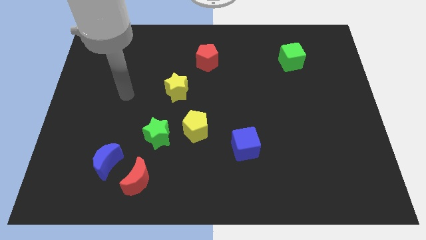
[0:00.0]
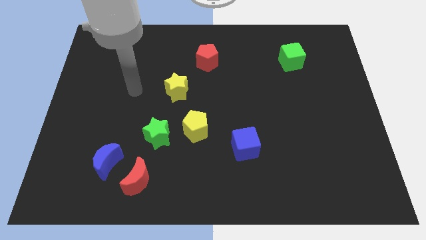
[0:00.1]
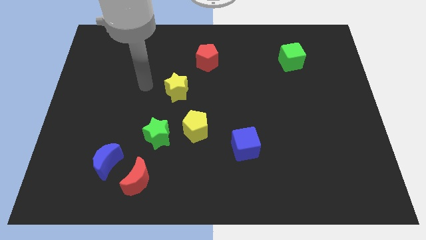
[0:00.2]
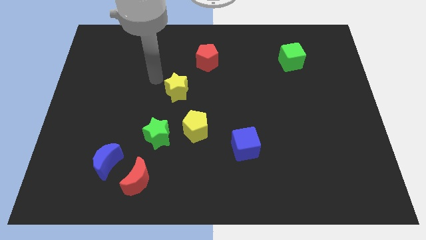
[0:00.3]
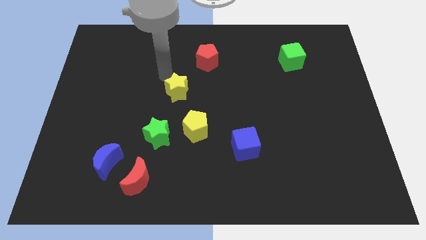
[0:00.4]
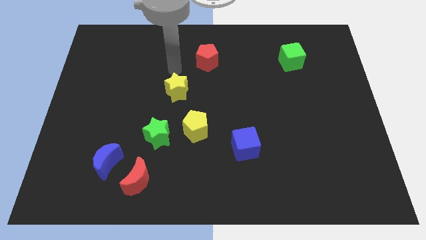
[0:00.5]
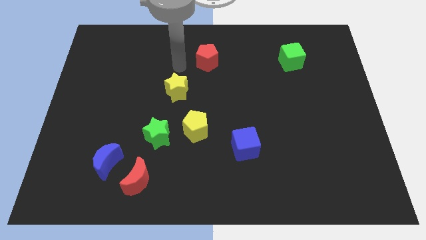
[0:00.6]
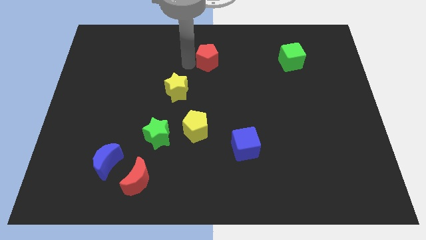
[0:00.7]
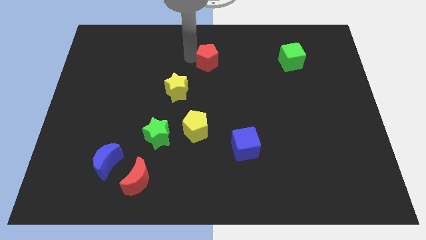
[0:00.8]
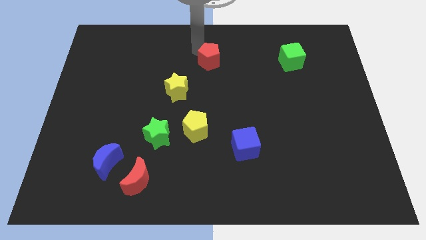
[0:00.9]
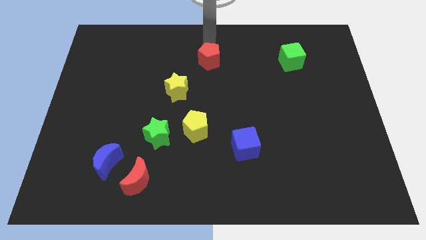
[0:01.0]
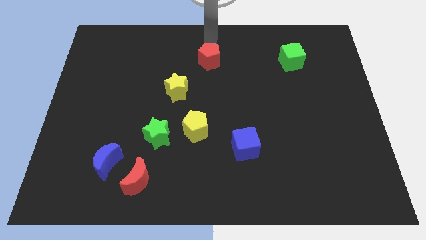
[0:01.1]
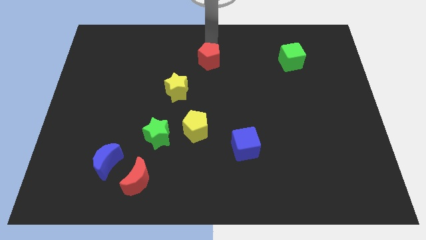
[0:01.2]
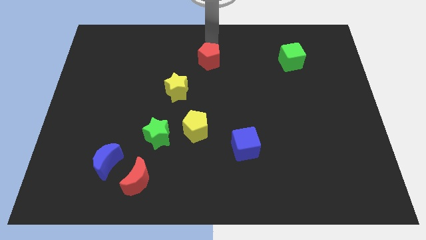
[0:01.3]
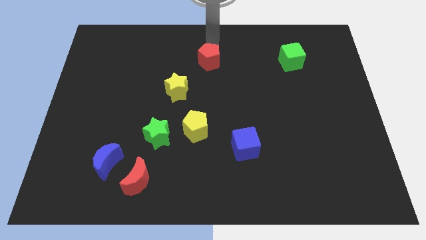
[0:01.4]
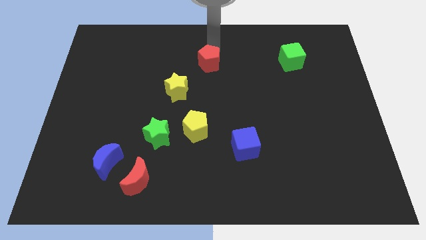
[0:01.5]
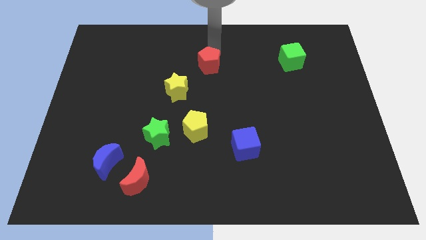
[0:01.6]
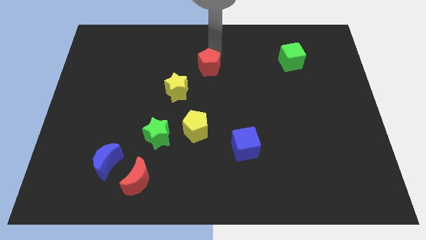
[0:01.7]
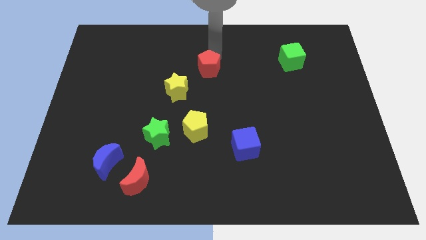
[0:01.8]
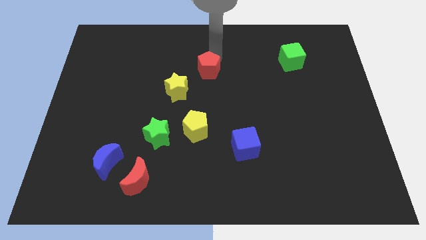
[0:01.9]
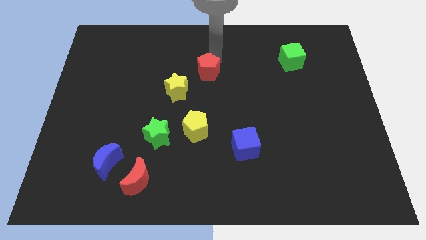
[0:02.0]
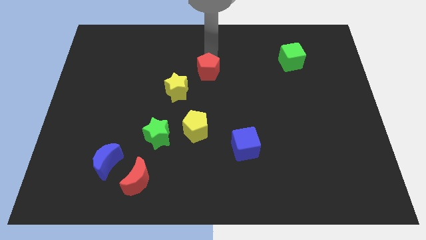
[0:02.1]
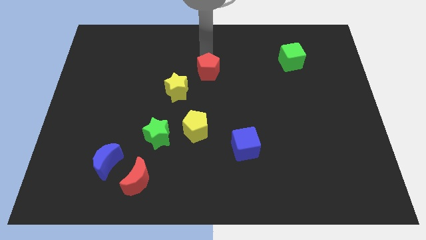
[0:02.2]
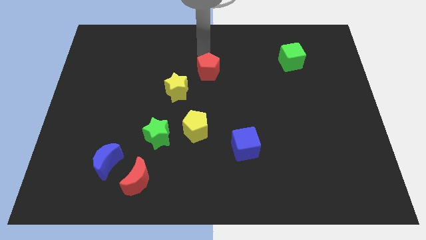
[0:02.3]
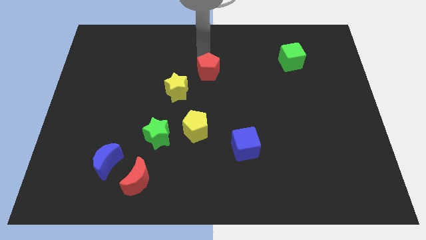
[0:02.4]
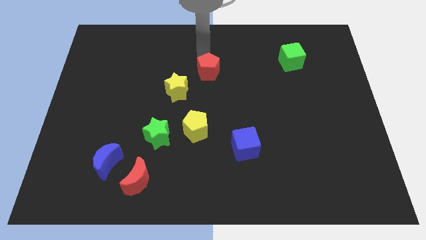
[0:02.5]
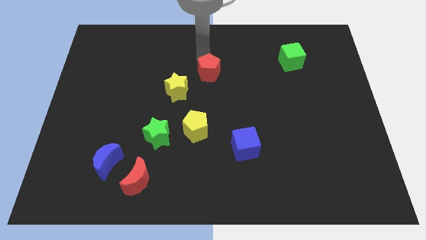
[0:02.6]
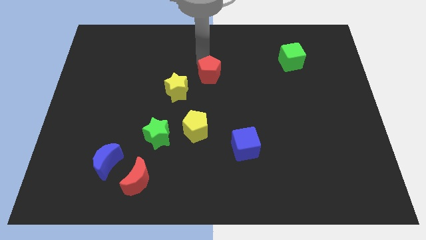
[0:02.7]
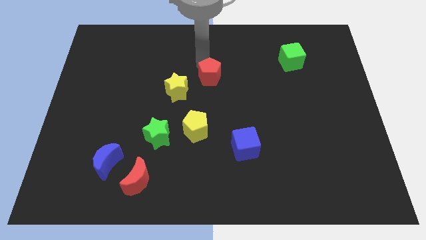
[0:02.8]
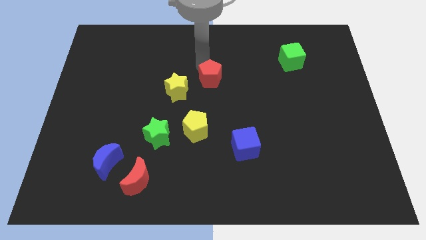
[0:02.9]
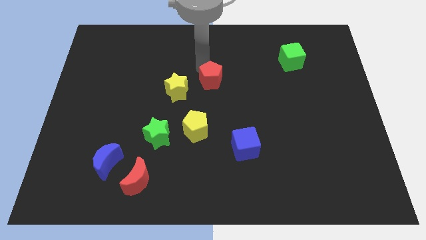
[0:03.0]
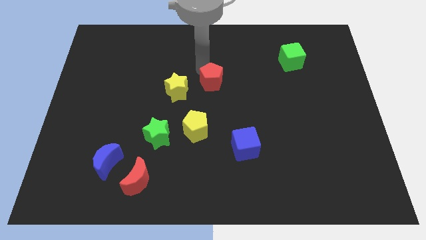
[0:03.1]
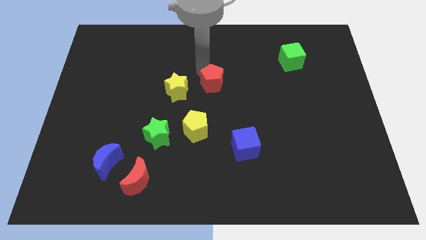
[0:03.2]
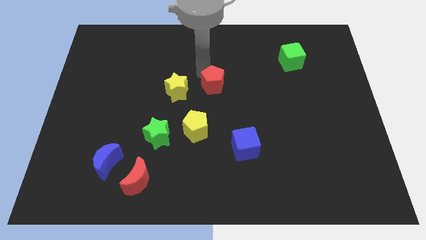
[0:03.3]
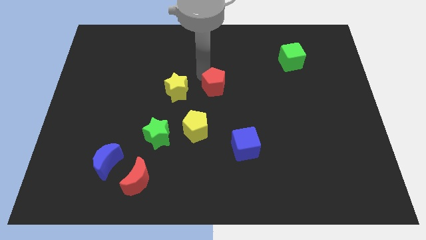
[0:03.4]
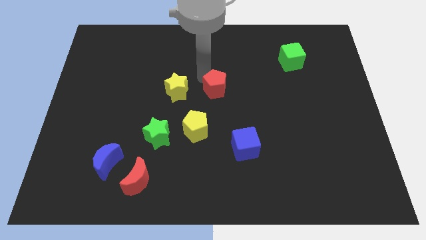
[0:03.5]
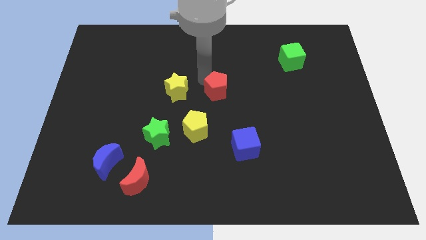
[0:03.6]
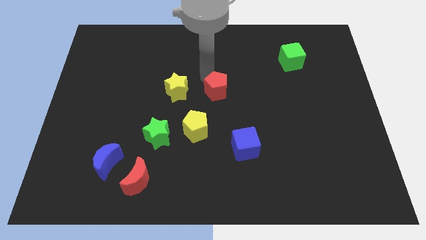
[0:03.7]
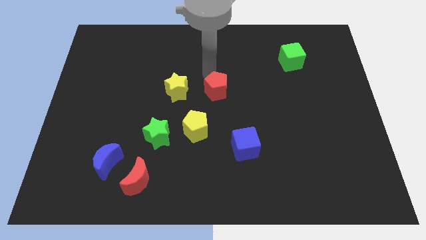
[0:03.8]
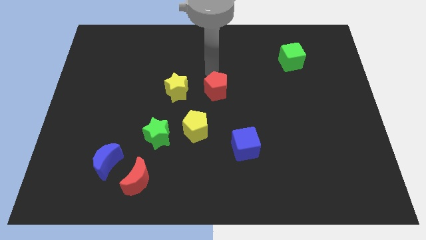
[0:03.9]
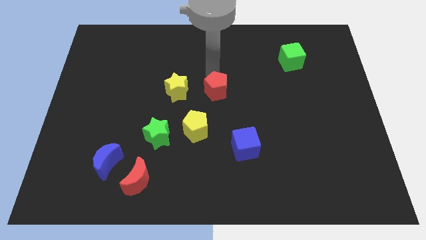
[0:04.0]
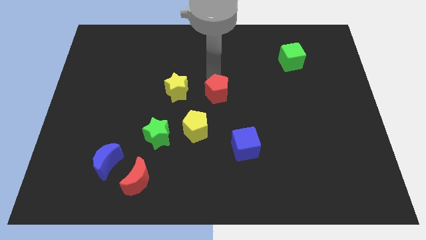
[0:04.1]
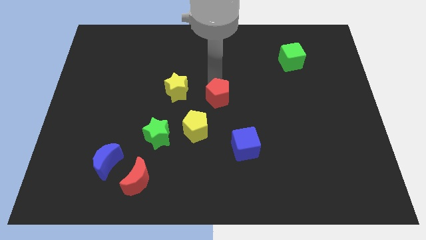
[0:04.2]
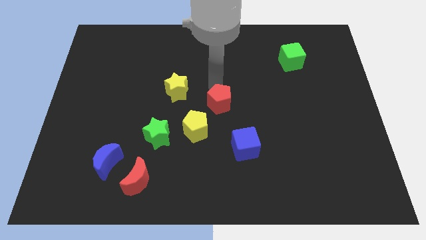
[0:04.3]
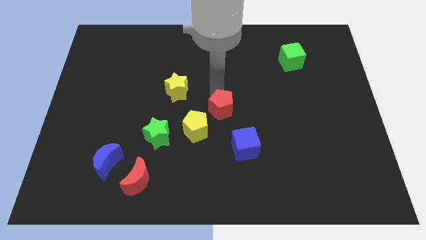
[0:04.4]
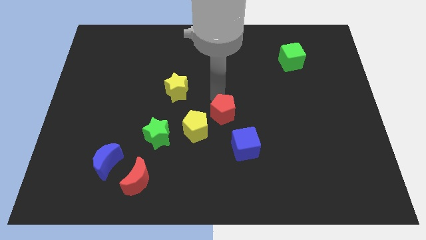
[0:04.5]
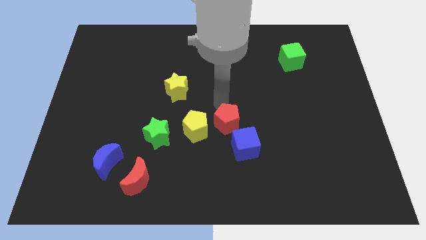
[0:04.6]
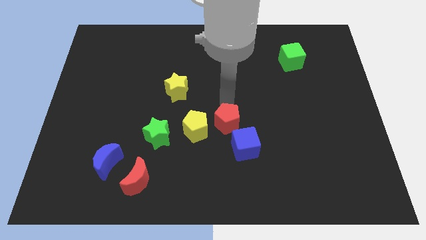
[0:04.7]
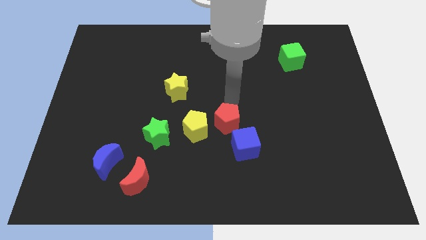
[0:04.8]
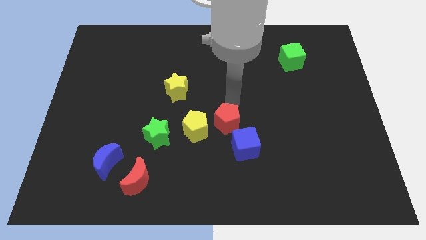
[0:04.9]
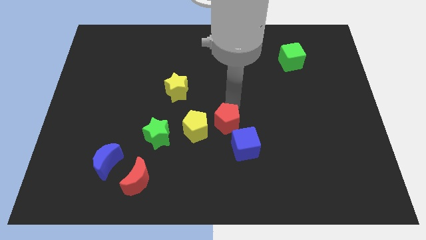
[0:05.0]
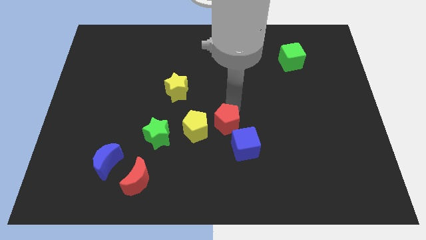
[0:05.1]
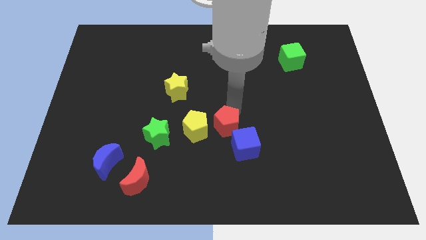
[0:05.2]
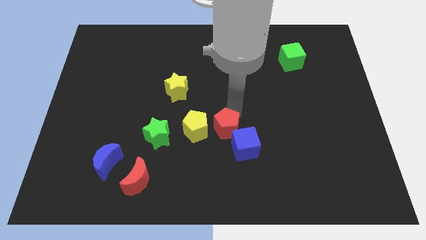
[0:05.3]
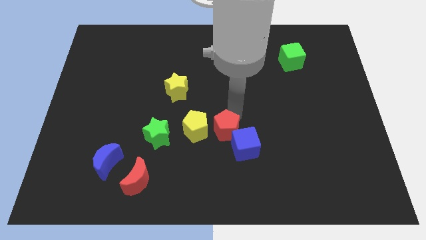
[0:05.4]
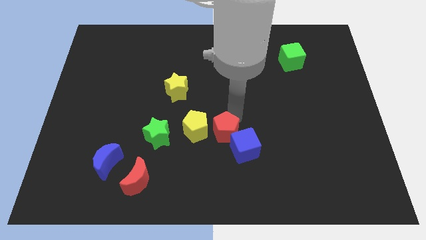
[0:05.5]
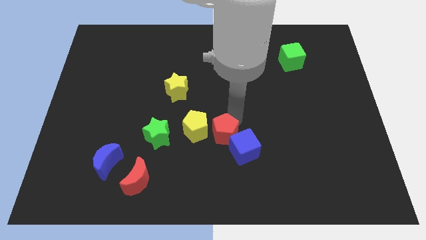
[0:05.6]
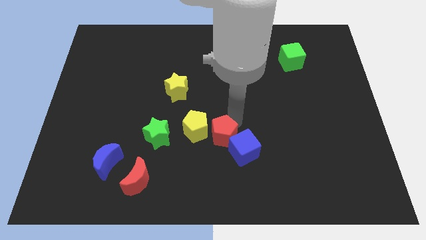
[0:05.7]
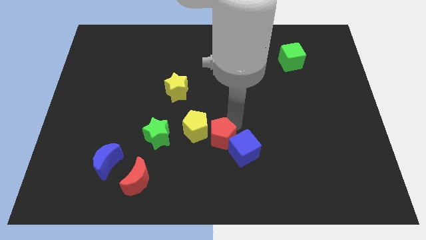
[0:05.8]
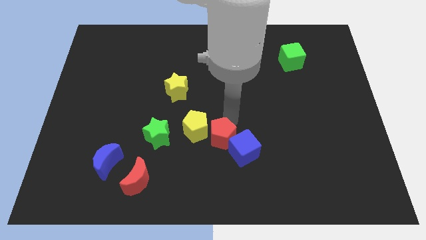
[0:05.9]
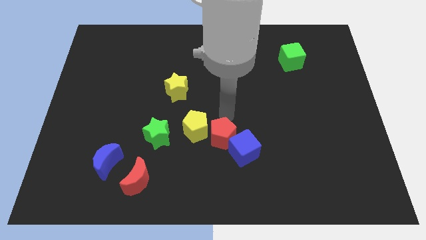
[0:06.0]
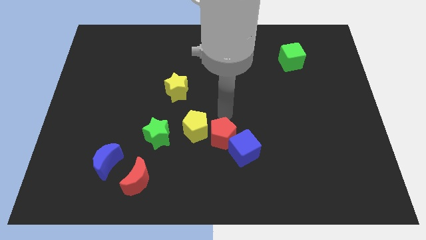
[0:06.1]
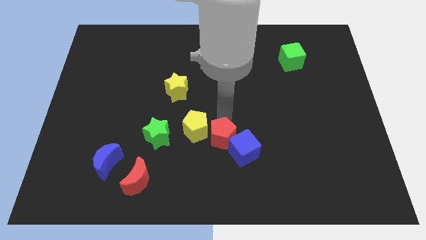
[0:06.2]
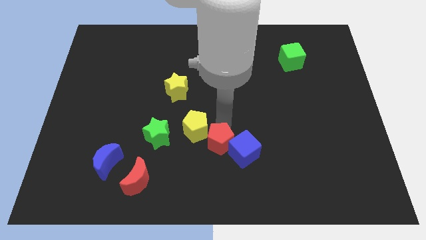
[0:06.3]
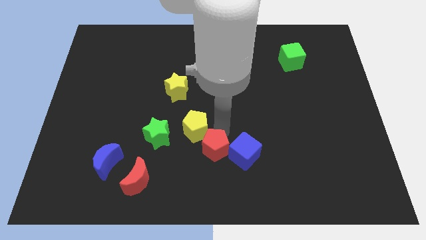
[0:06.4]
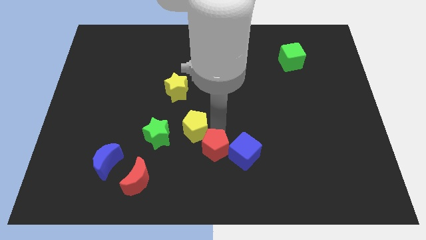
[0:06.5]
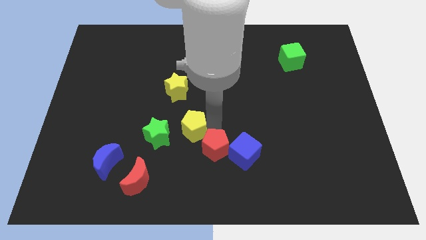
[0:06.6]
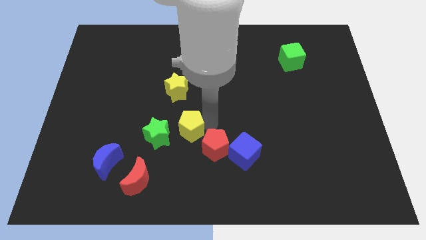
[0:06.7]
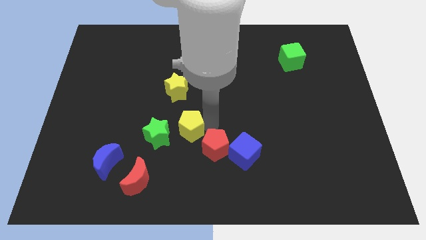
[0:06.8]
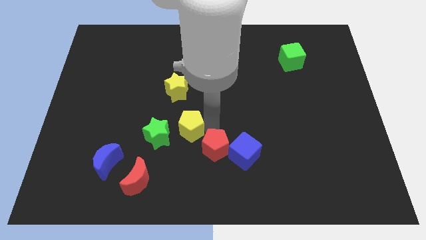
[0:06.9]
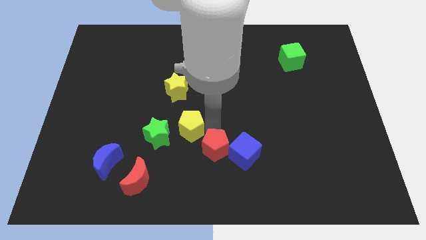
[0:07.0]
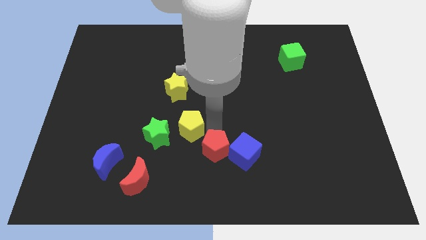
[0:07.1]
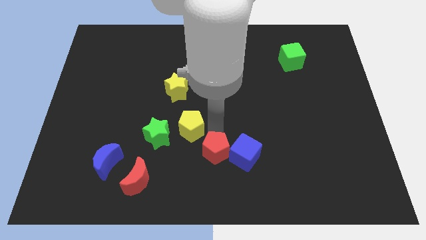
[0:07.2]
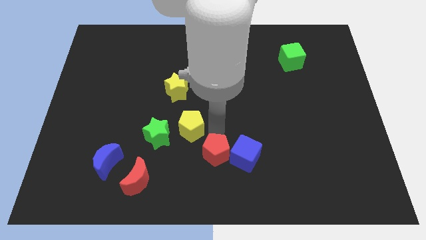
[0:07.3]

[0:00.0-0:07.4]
push the red pentagon to the bottom
